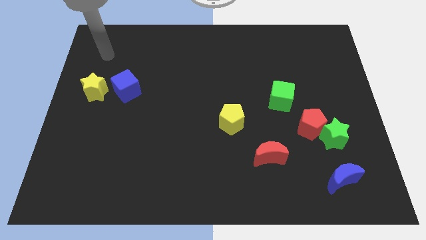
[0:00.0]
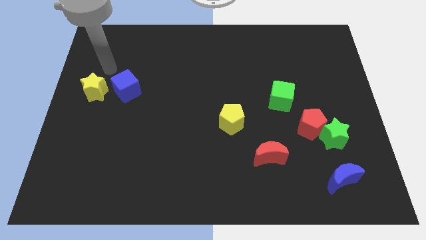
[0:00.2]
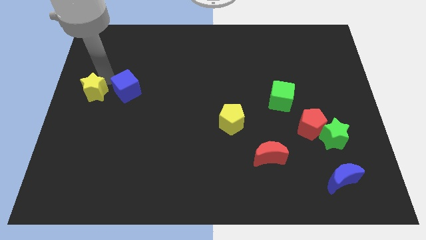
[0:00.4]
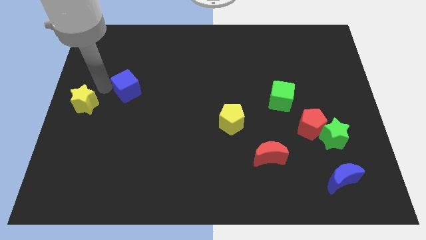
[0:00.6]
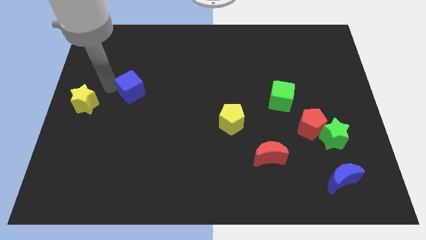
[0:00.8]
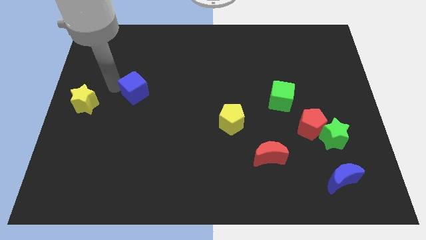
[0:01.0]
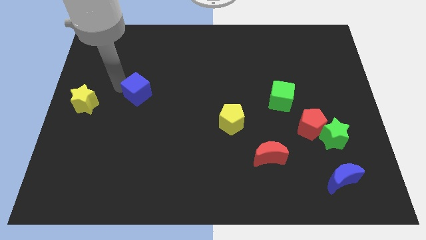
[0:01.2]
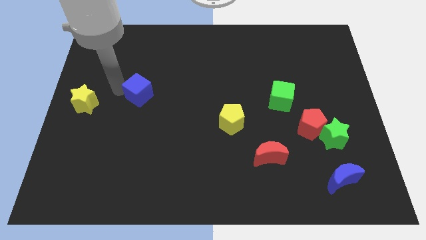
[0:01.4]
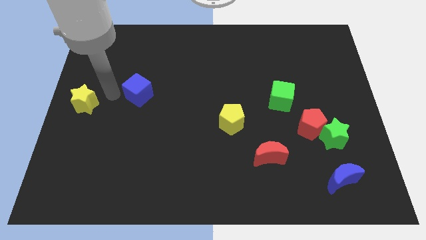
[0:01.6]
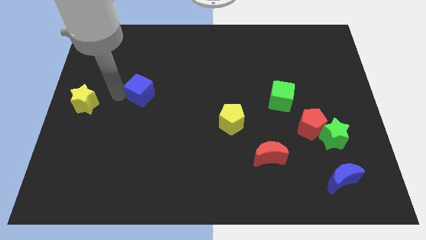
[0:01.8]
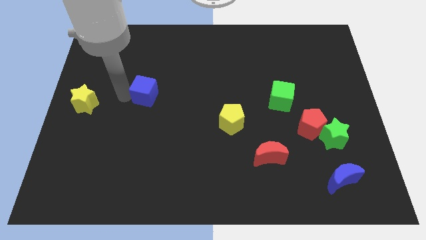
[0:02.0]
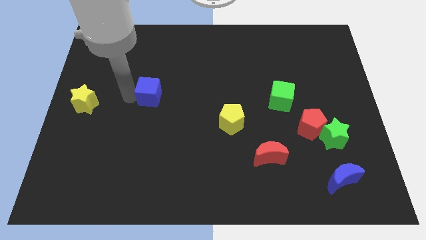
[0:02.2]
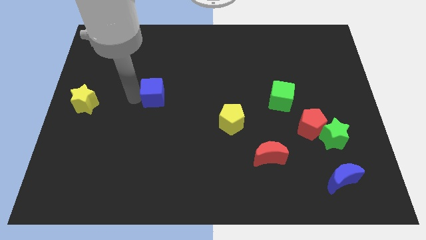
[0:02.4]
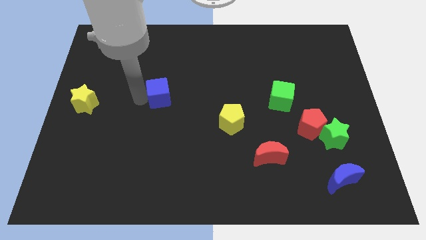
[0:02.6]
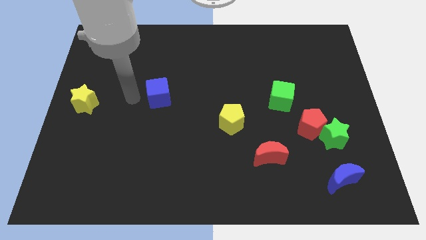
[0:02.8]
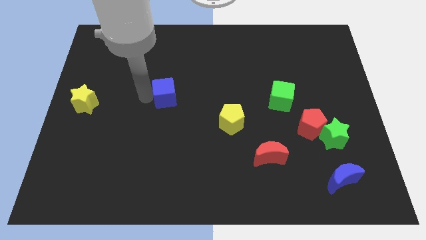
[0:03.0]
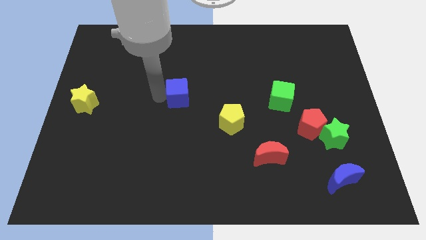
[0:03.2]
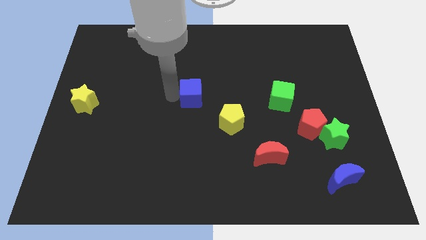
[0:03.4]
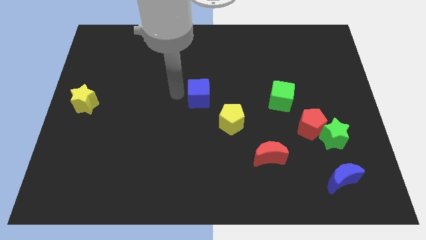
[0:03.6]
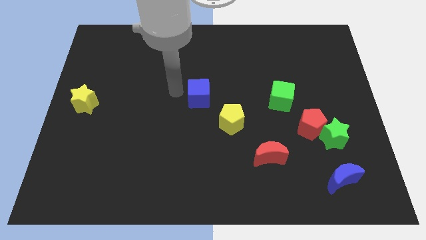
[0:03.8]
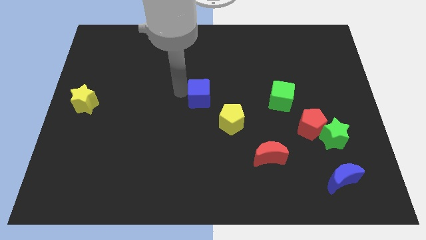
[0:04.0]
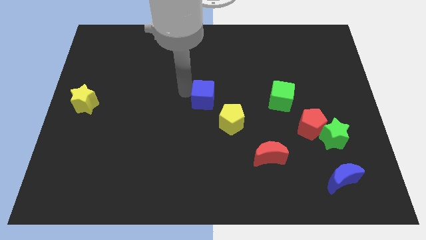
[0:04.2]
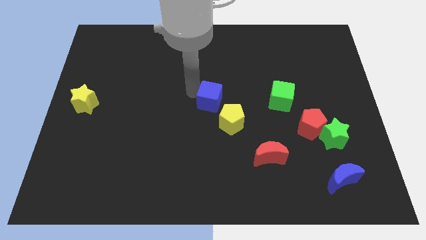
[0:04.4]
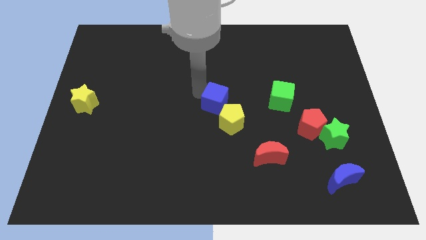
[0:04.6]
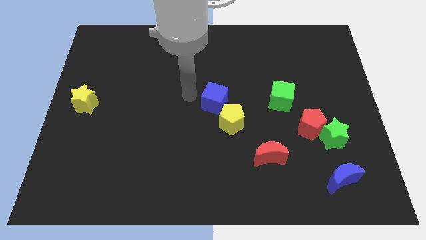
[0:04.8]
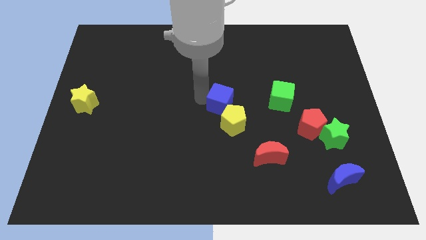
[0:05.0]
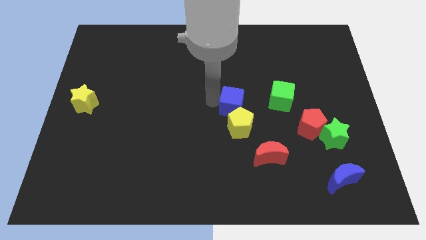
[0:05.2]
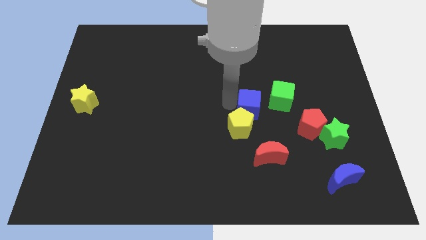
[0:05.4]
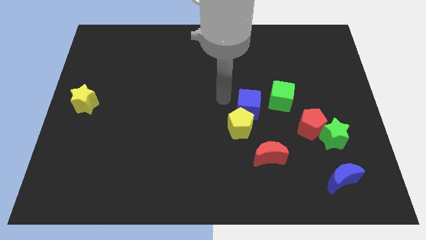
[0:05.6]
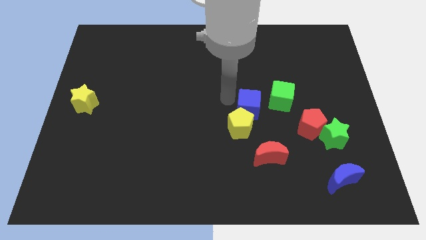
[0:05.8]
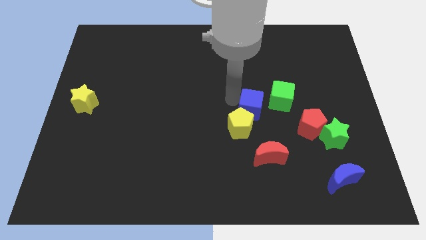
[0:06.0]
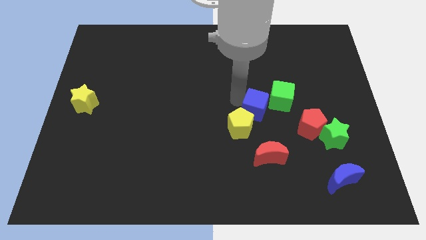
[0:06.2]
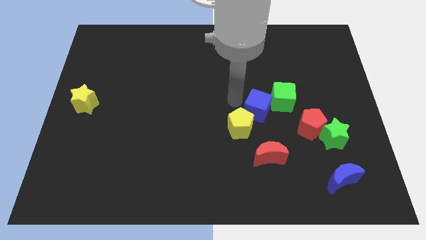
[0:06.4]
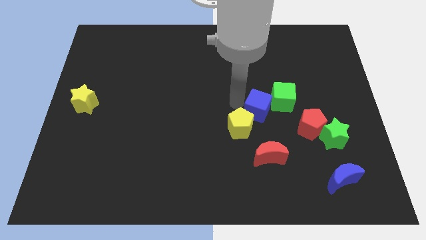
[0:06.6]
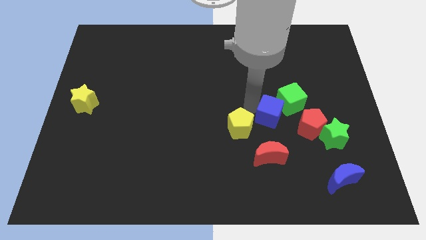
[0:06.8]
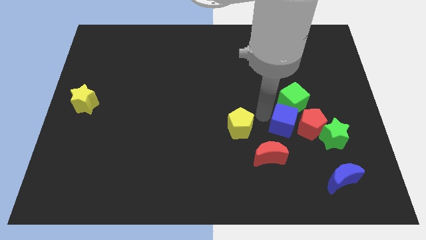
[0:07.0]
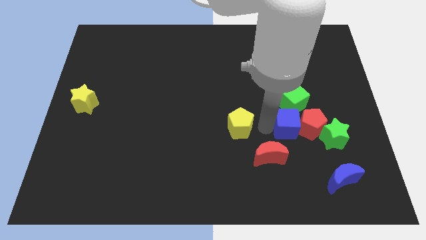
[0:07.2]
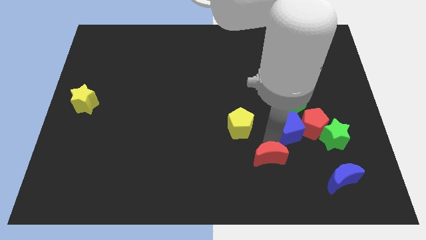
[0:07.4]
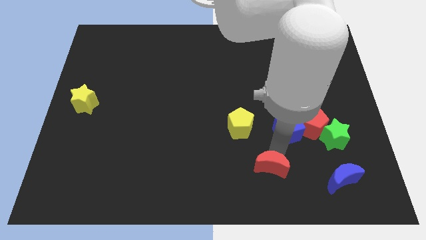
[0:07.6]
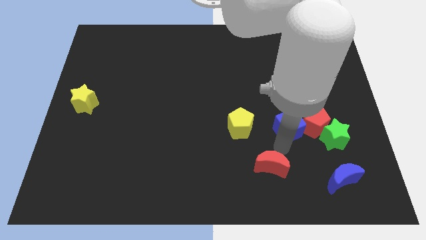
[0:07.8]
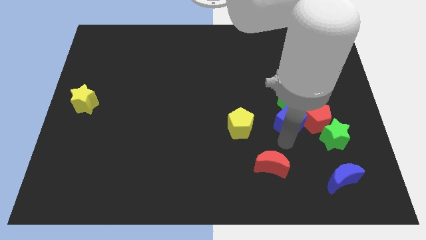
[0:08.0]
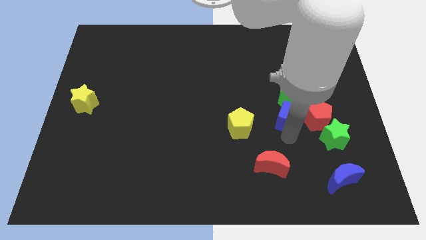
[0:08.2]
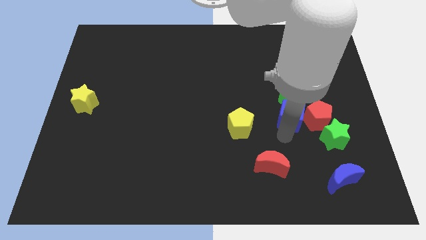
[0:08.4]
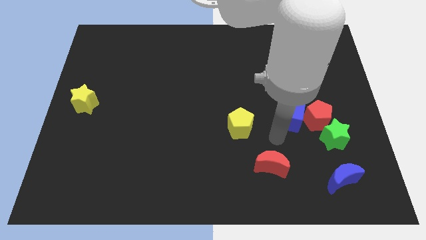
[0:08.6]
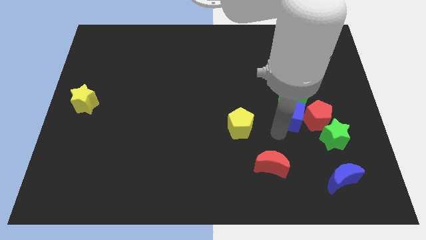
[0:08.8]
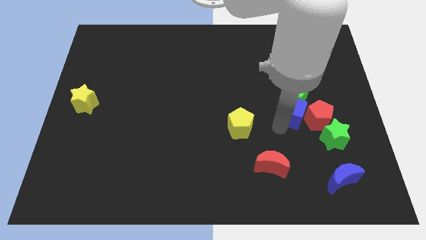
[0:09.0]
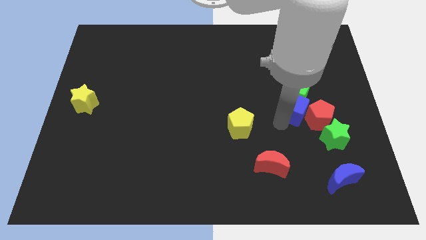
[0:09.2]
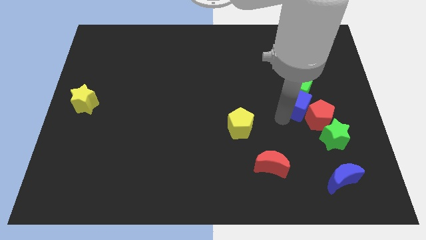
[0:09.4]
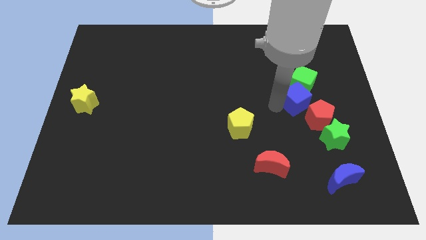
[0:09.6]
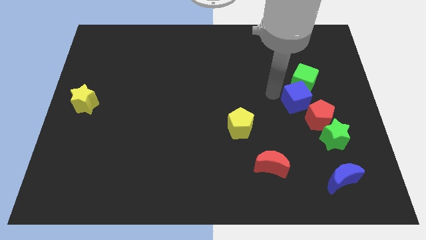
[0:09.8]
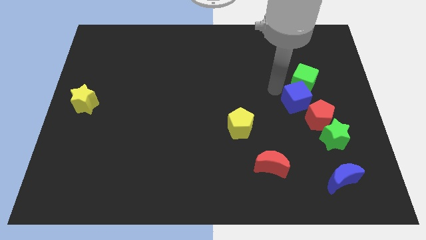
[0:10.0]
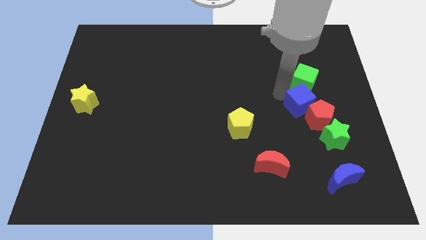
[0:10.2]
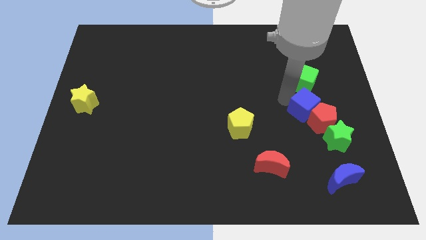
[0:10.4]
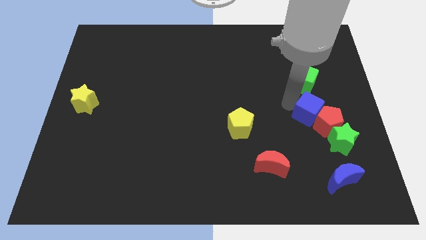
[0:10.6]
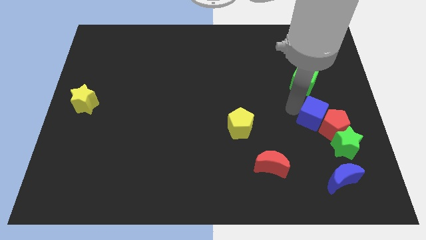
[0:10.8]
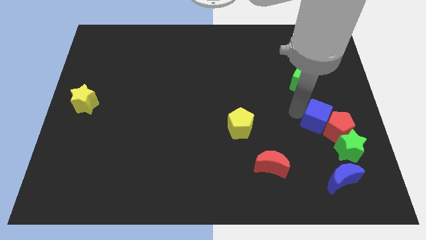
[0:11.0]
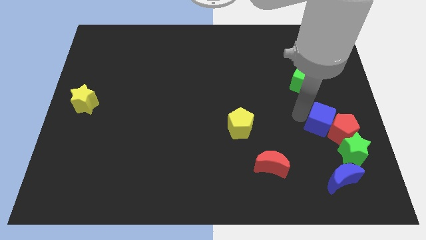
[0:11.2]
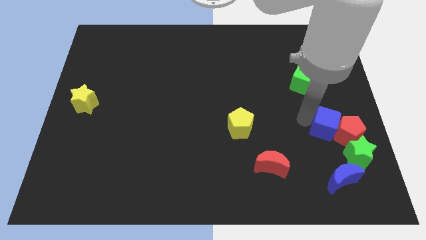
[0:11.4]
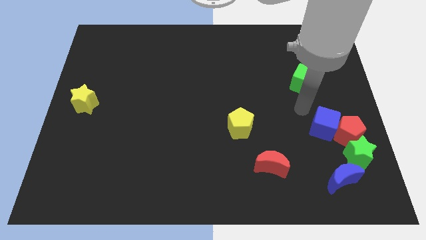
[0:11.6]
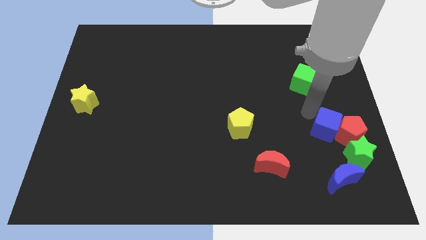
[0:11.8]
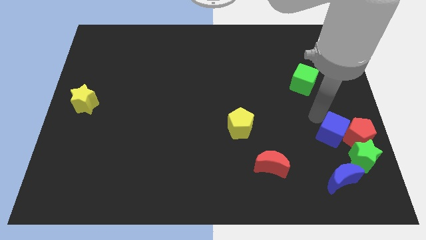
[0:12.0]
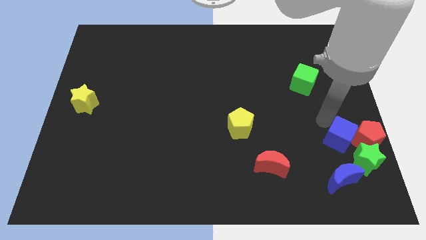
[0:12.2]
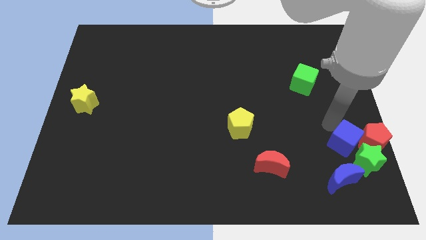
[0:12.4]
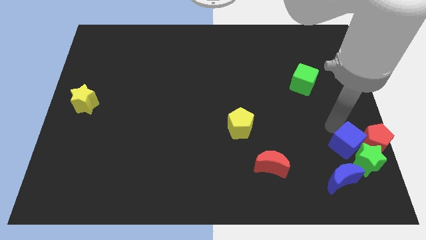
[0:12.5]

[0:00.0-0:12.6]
push the blue cube close to the green star

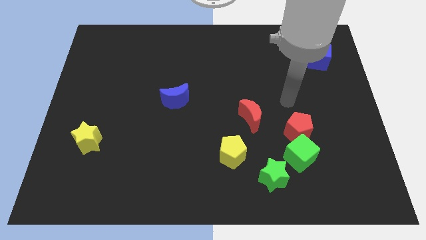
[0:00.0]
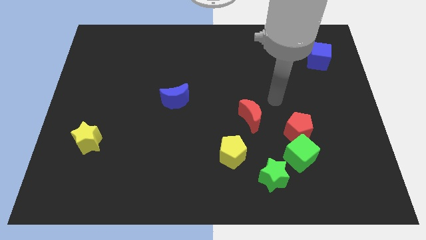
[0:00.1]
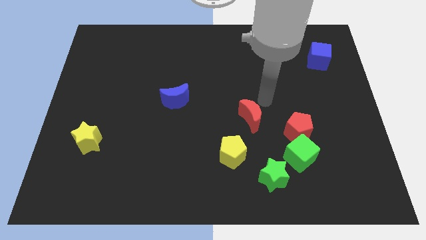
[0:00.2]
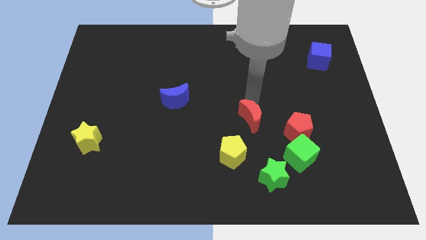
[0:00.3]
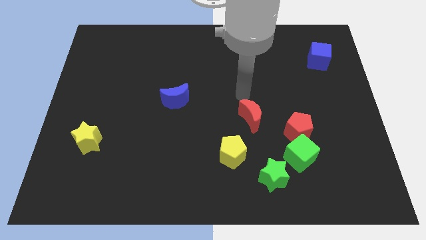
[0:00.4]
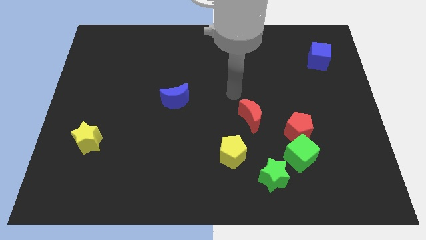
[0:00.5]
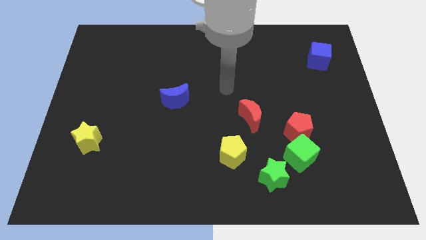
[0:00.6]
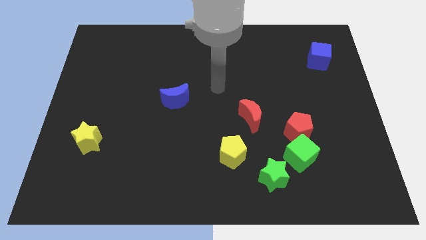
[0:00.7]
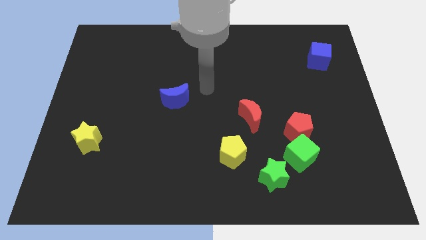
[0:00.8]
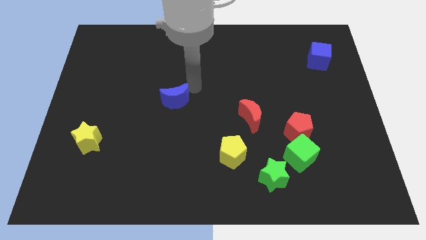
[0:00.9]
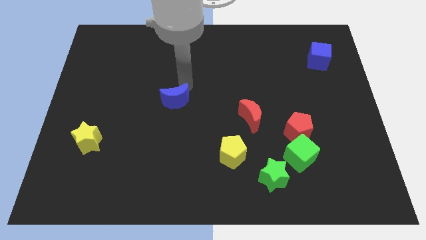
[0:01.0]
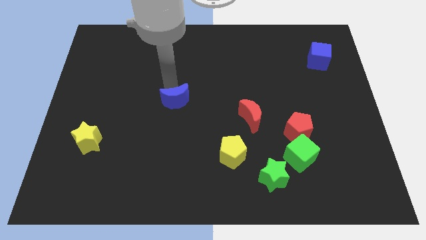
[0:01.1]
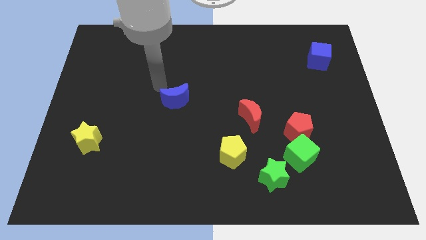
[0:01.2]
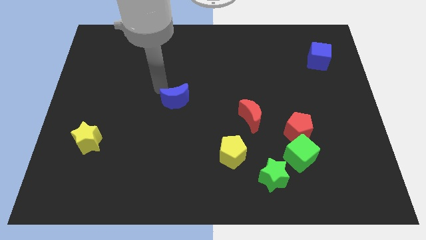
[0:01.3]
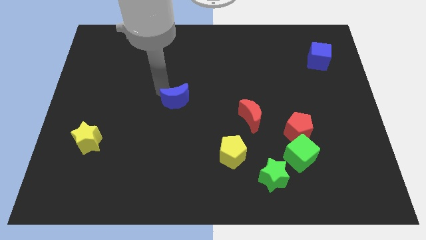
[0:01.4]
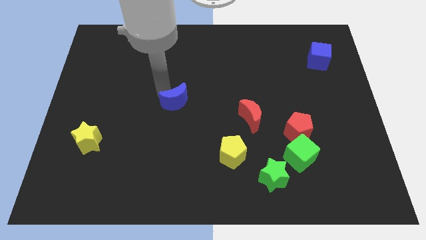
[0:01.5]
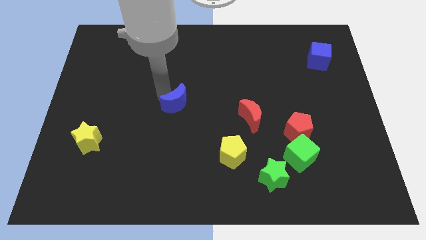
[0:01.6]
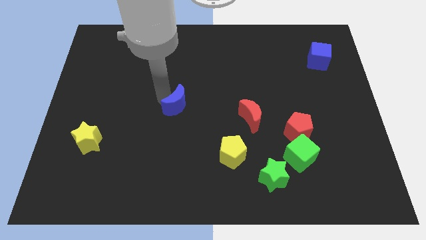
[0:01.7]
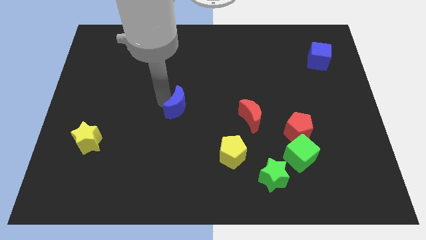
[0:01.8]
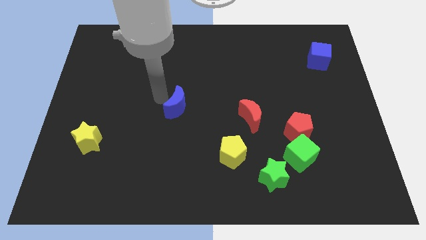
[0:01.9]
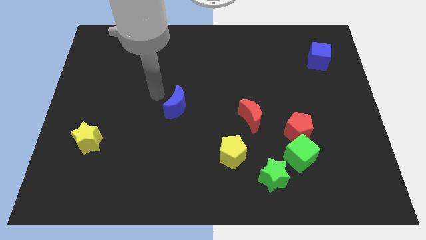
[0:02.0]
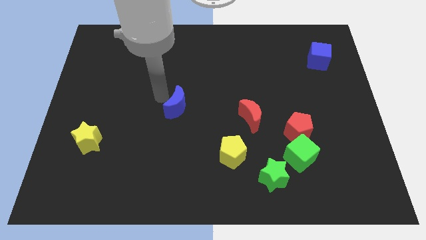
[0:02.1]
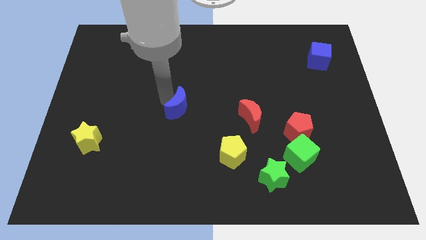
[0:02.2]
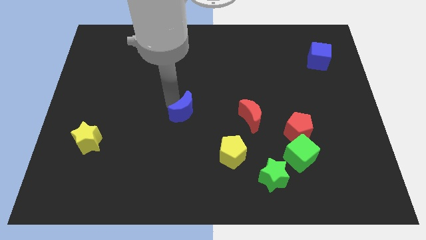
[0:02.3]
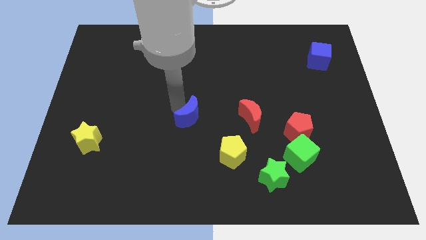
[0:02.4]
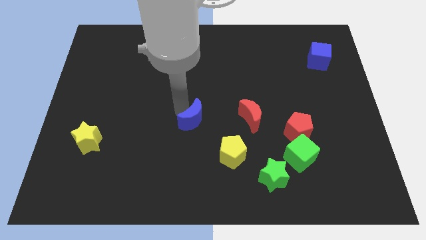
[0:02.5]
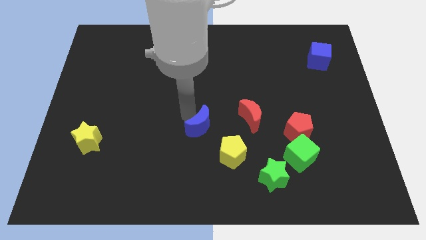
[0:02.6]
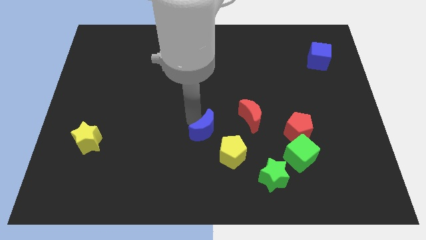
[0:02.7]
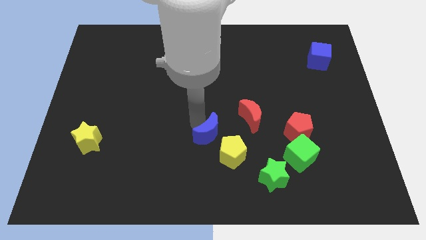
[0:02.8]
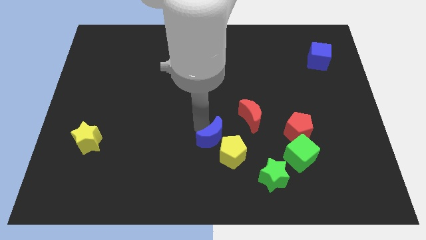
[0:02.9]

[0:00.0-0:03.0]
put the blue moon next to the yellow pentagon
